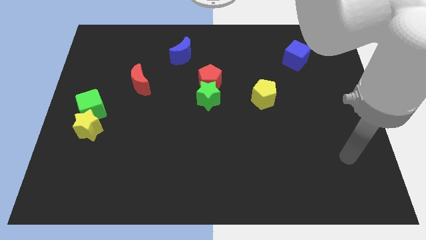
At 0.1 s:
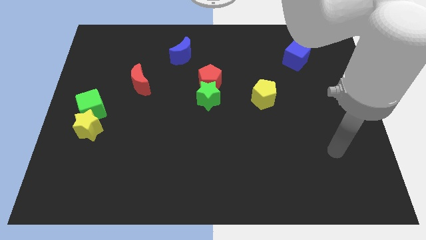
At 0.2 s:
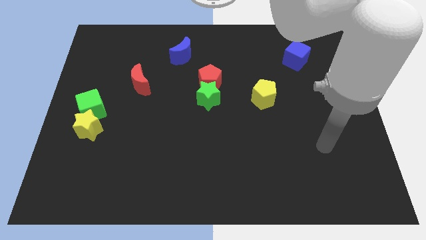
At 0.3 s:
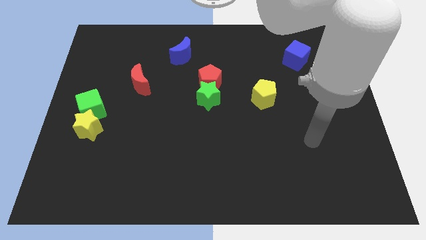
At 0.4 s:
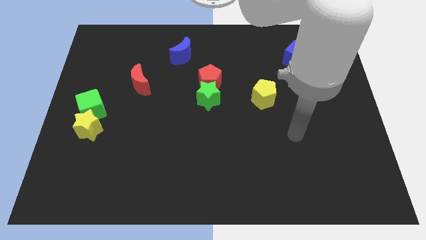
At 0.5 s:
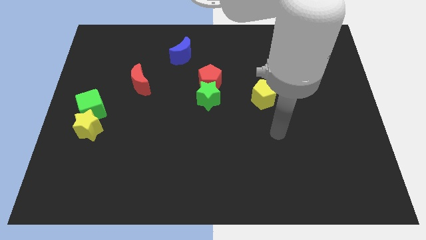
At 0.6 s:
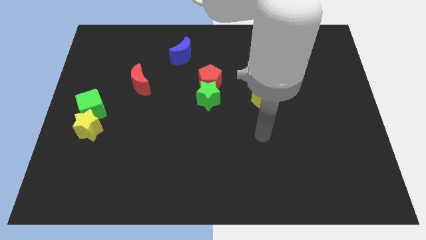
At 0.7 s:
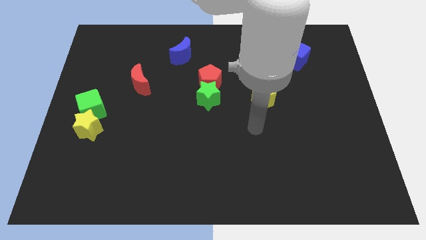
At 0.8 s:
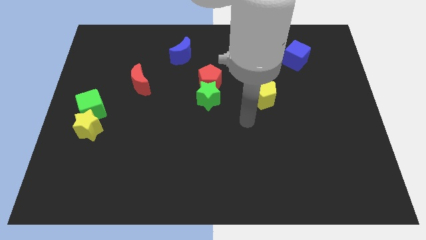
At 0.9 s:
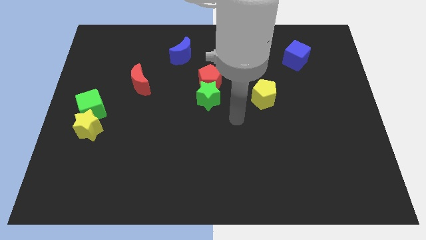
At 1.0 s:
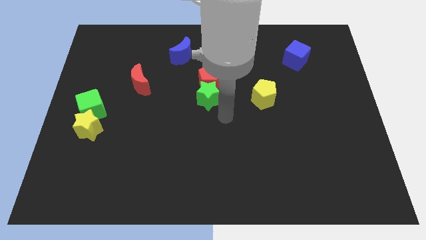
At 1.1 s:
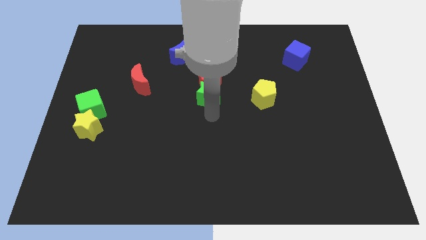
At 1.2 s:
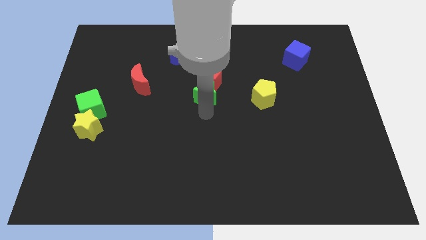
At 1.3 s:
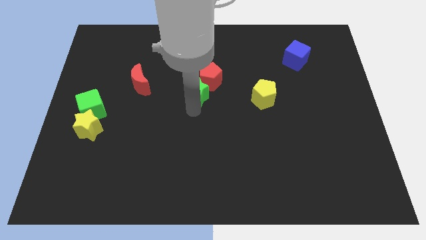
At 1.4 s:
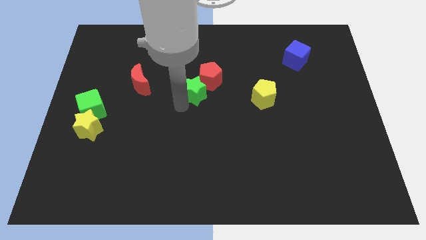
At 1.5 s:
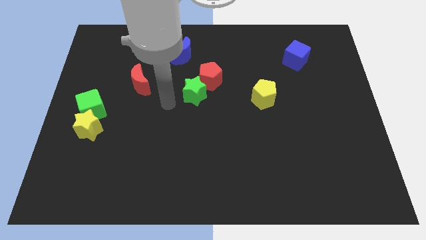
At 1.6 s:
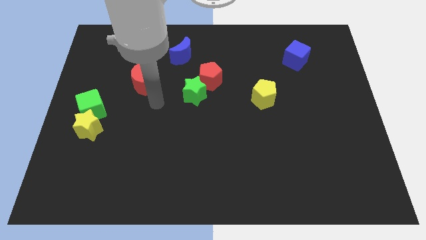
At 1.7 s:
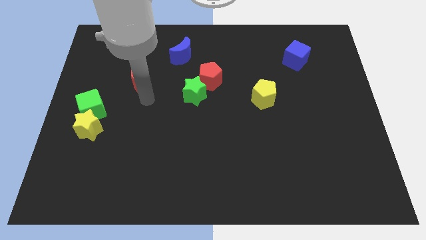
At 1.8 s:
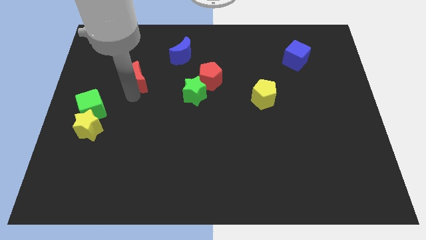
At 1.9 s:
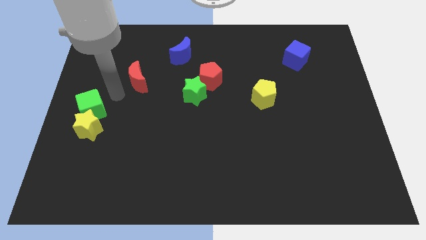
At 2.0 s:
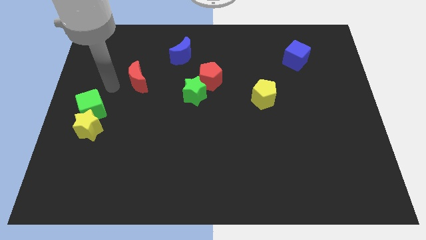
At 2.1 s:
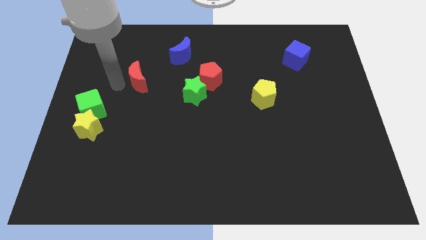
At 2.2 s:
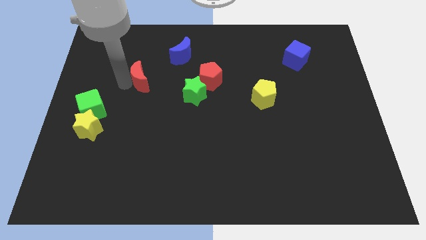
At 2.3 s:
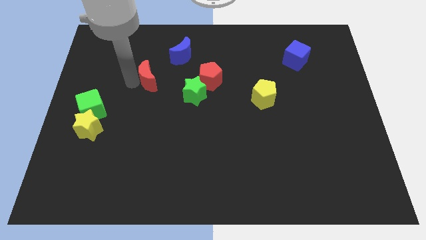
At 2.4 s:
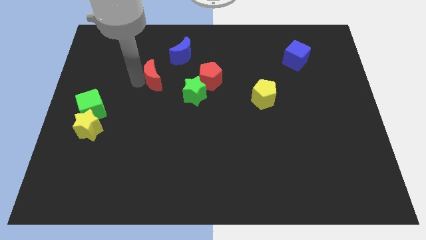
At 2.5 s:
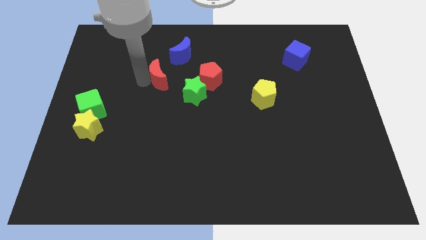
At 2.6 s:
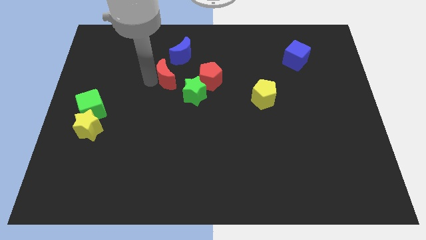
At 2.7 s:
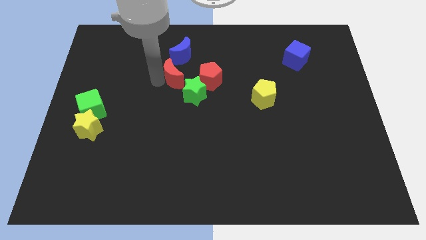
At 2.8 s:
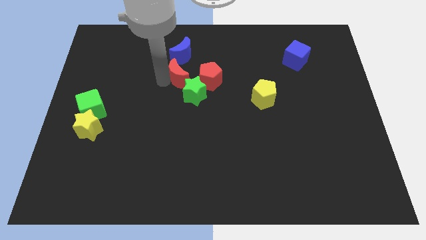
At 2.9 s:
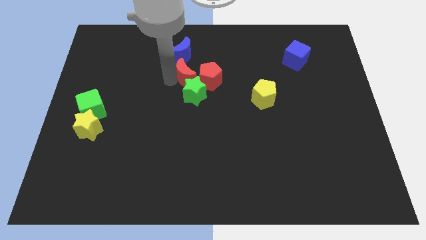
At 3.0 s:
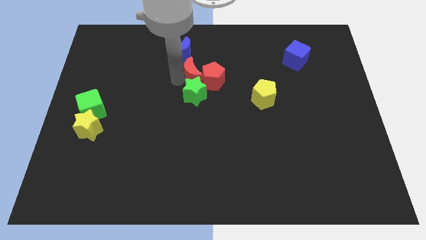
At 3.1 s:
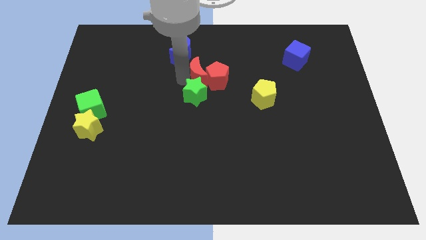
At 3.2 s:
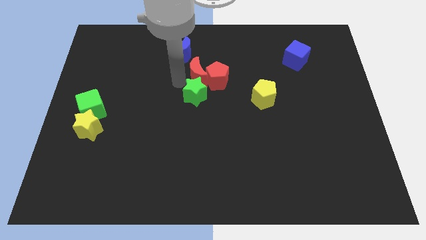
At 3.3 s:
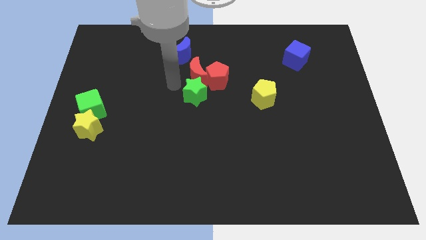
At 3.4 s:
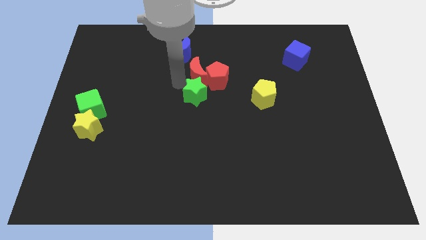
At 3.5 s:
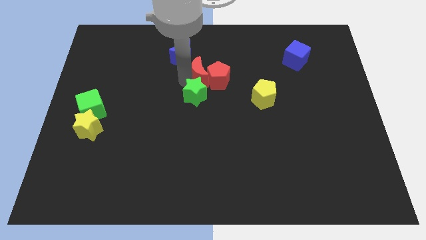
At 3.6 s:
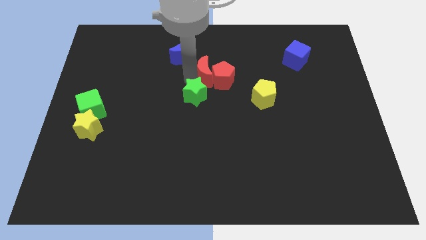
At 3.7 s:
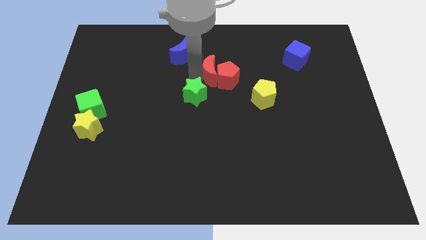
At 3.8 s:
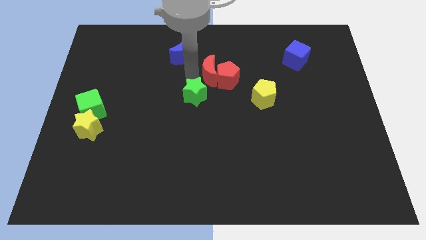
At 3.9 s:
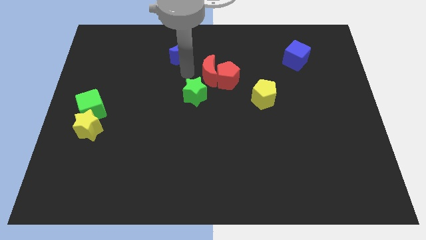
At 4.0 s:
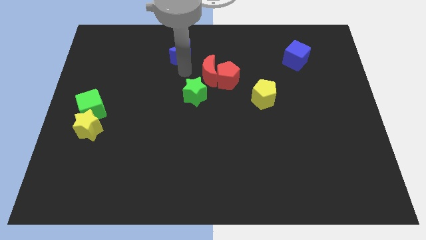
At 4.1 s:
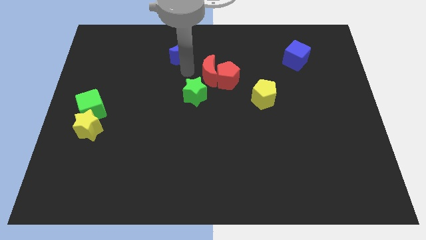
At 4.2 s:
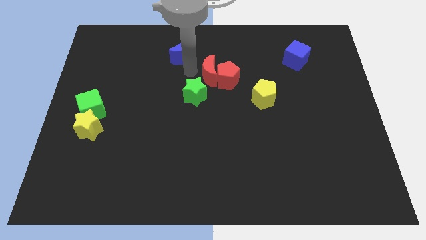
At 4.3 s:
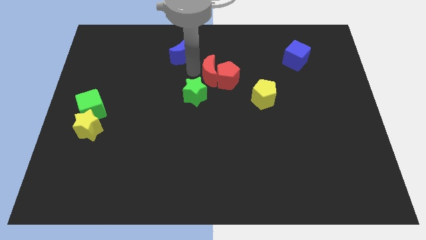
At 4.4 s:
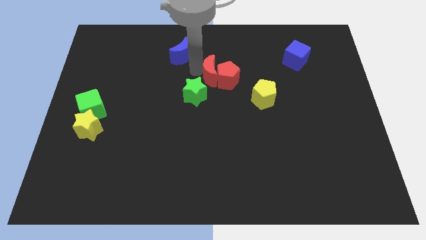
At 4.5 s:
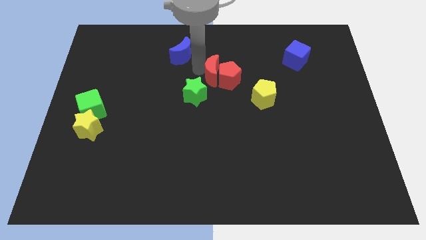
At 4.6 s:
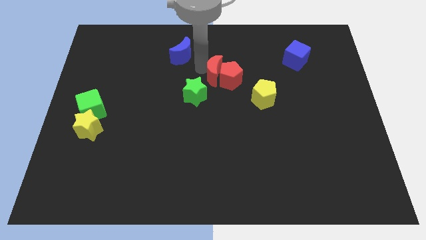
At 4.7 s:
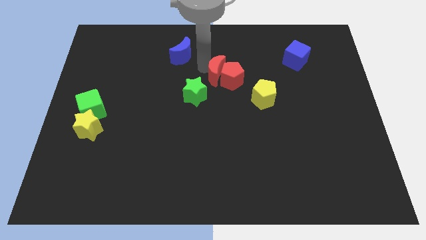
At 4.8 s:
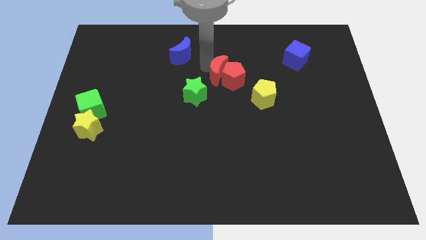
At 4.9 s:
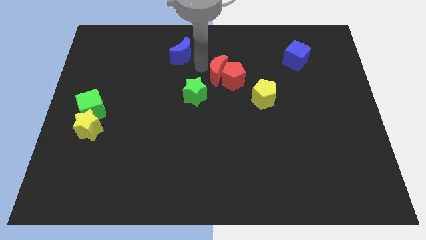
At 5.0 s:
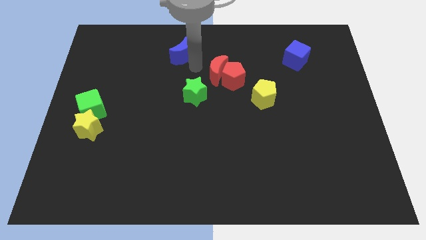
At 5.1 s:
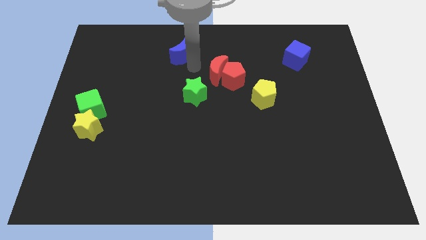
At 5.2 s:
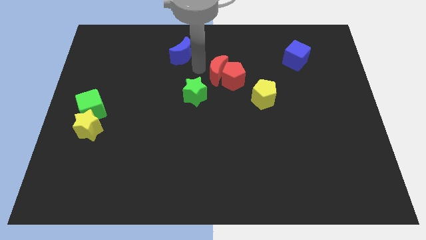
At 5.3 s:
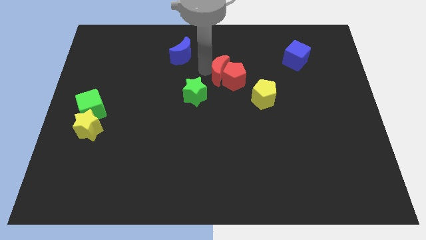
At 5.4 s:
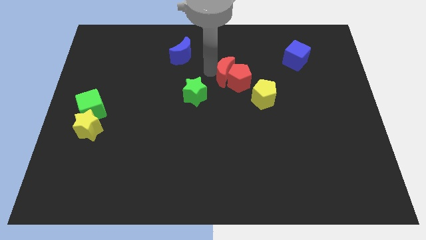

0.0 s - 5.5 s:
push the red moon right

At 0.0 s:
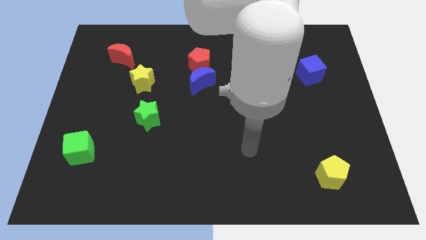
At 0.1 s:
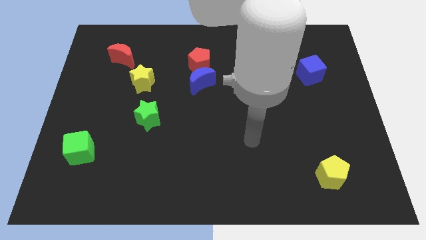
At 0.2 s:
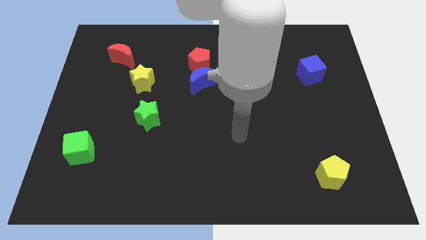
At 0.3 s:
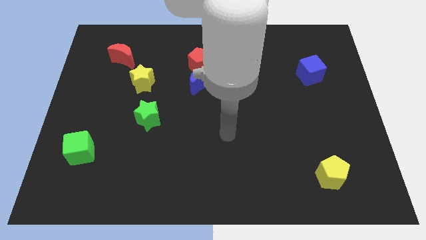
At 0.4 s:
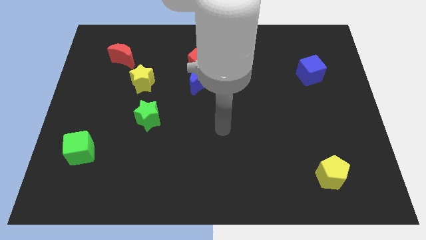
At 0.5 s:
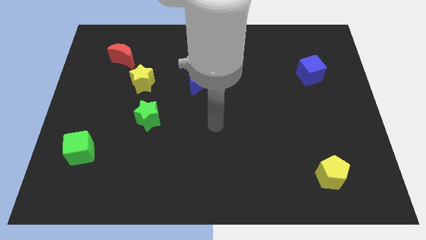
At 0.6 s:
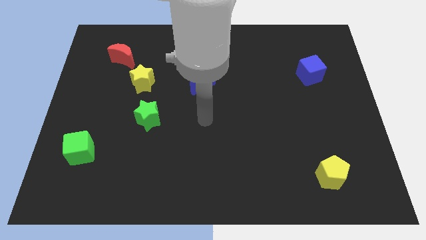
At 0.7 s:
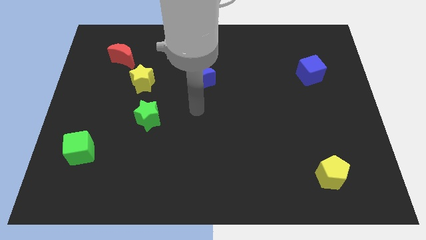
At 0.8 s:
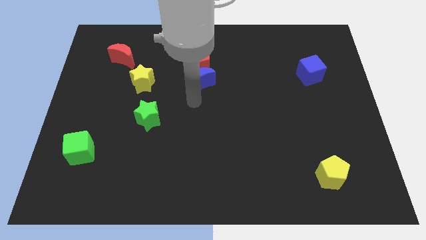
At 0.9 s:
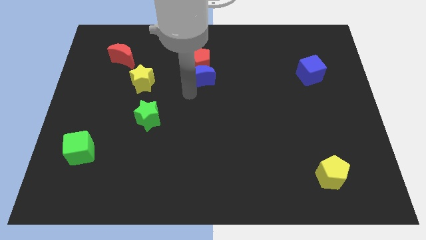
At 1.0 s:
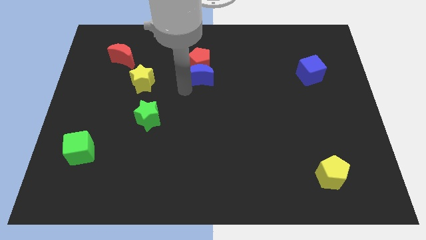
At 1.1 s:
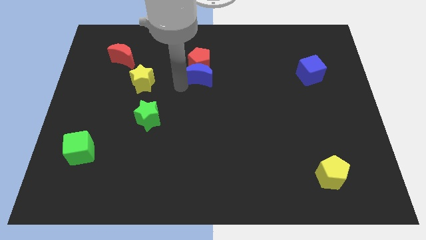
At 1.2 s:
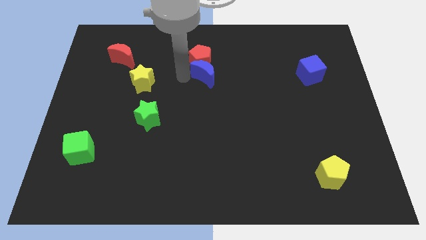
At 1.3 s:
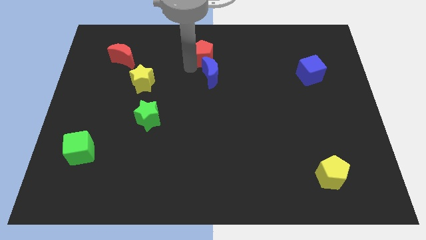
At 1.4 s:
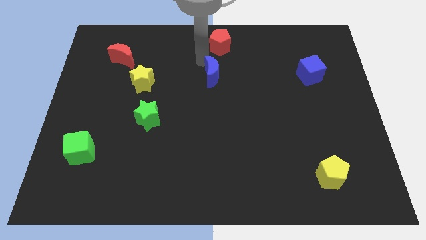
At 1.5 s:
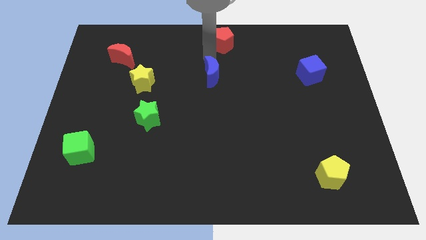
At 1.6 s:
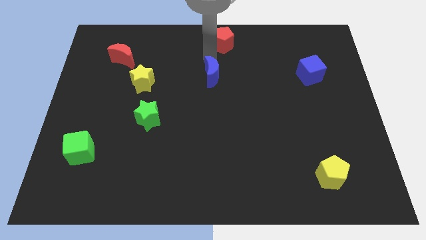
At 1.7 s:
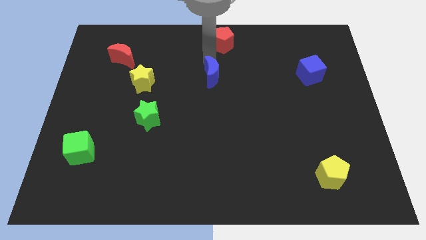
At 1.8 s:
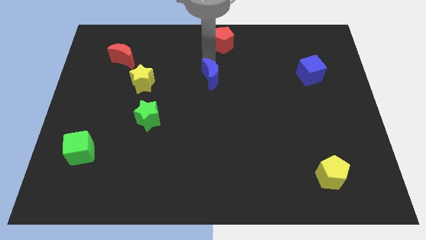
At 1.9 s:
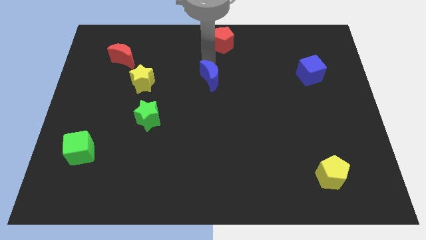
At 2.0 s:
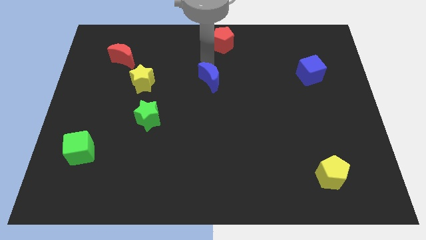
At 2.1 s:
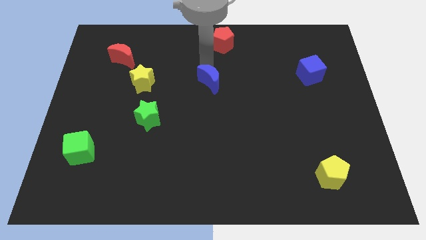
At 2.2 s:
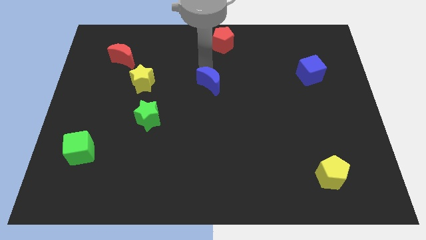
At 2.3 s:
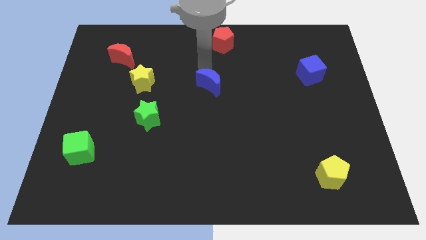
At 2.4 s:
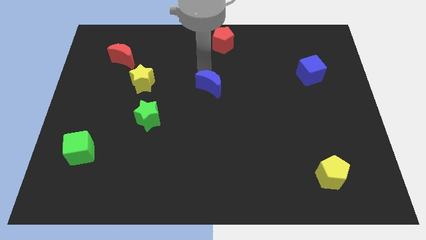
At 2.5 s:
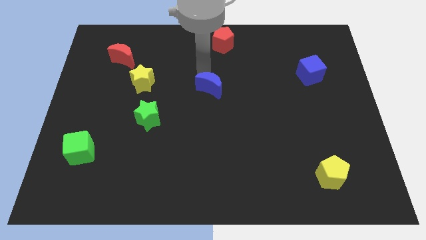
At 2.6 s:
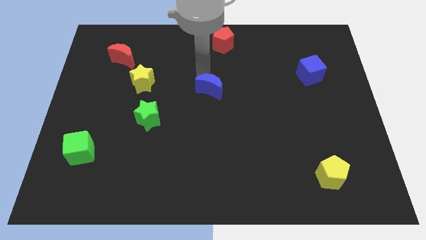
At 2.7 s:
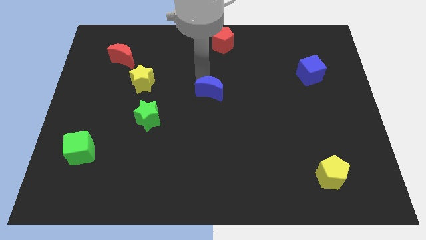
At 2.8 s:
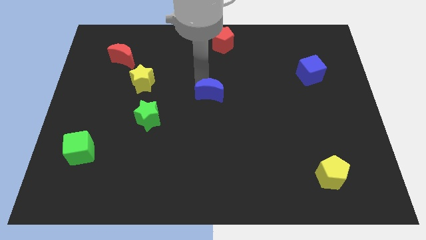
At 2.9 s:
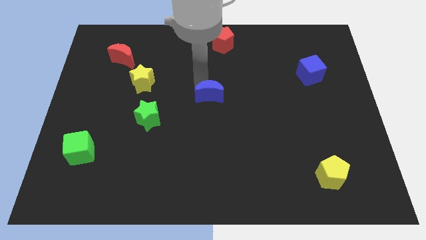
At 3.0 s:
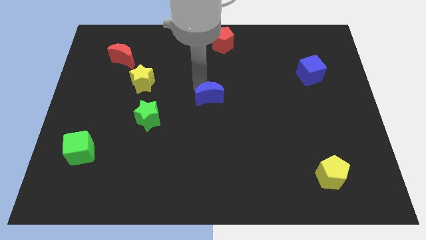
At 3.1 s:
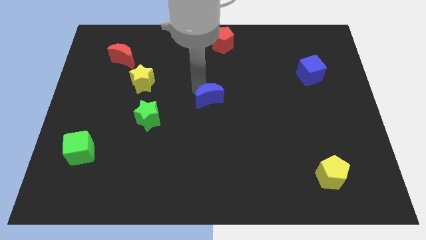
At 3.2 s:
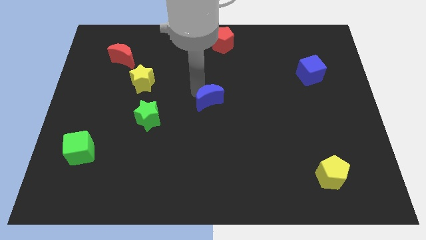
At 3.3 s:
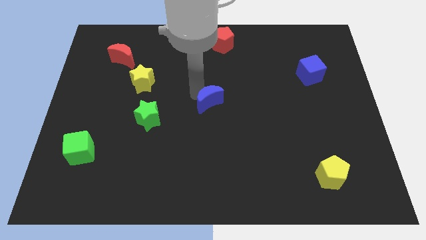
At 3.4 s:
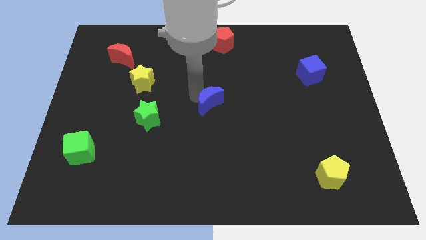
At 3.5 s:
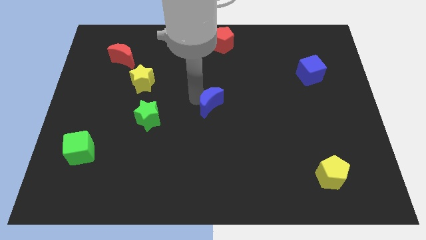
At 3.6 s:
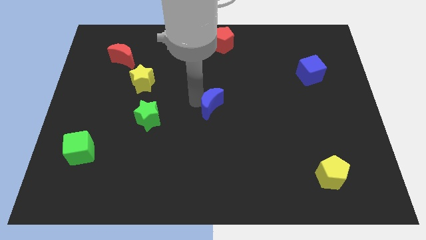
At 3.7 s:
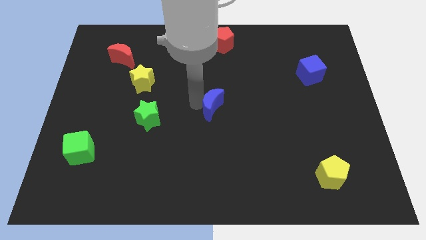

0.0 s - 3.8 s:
slightly push the blue moon down and to the right diagonally
